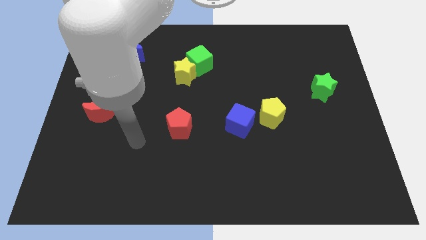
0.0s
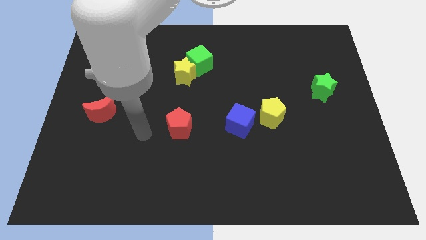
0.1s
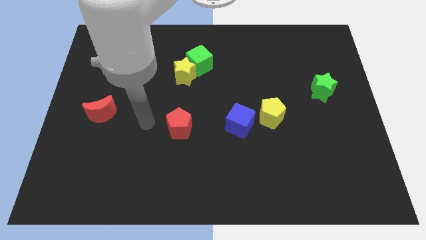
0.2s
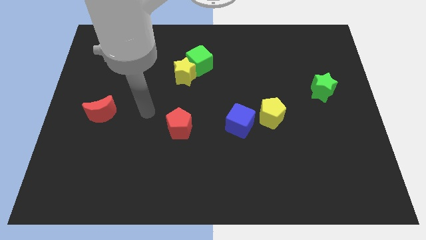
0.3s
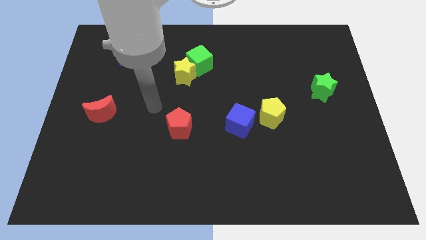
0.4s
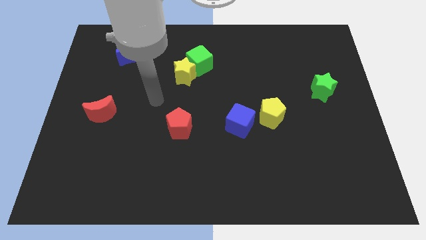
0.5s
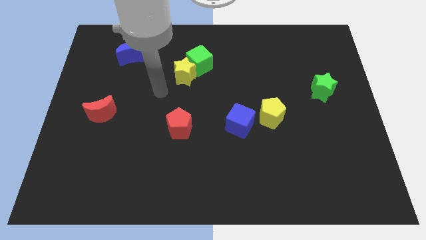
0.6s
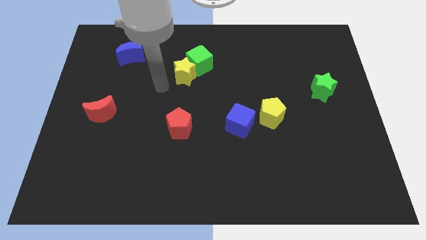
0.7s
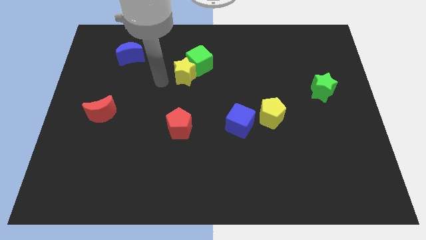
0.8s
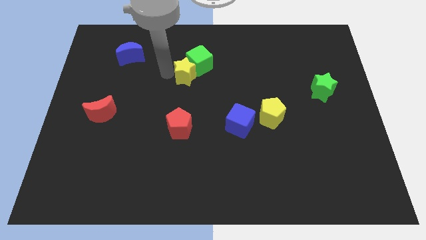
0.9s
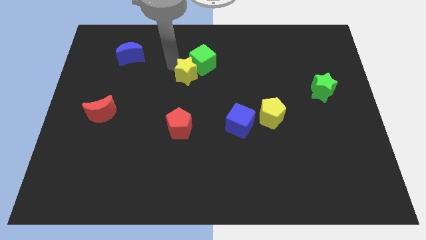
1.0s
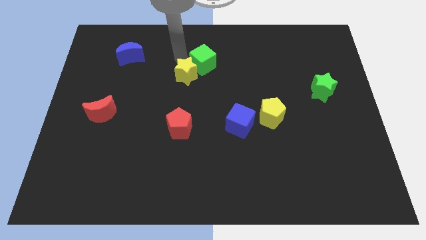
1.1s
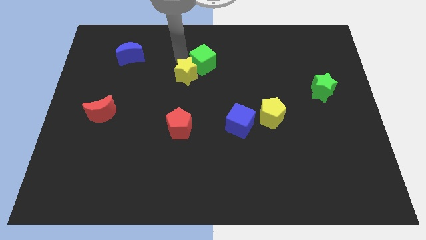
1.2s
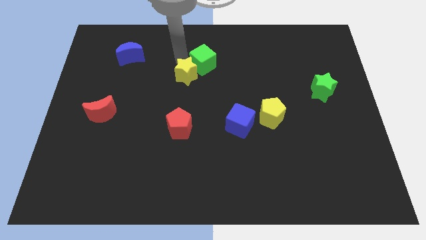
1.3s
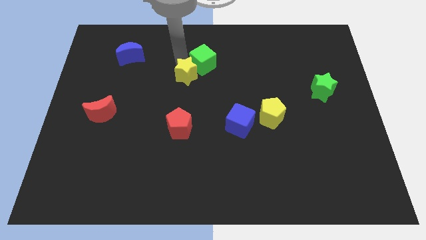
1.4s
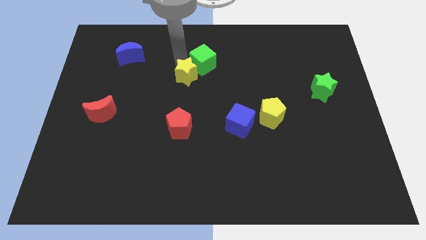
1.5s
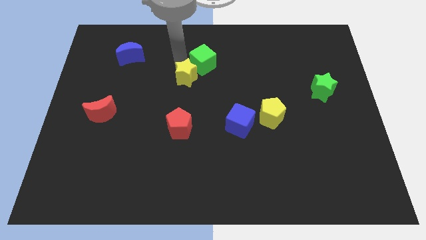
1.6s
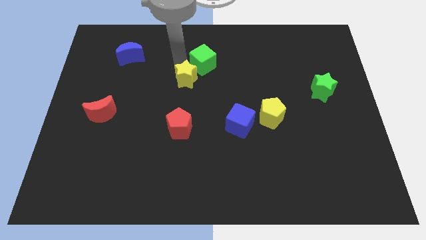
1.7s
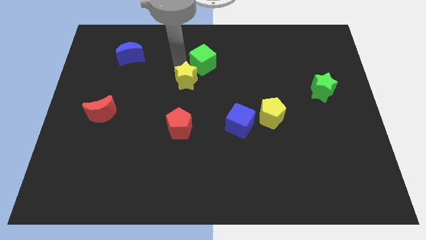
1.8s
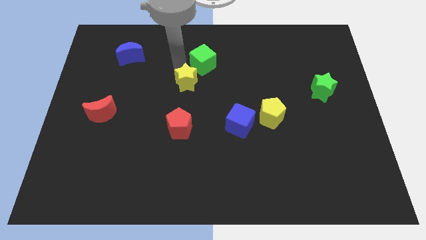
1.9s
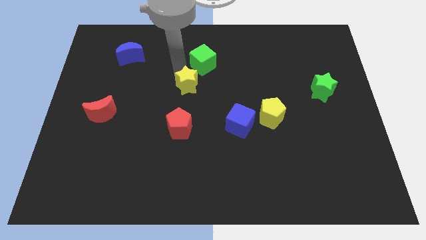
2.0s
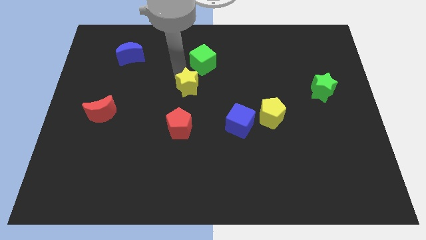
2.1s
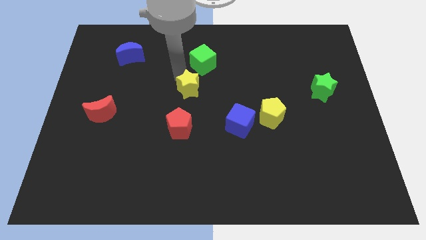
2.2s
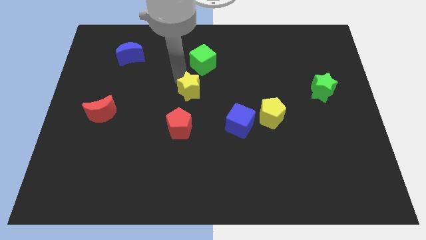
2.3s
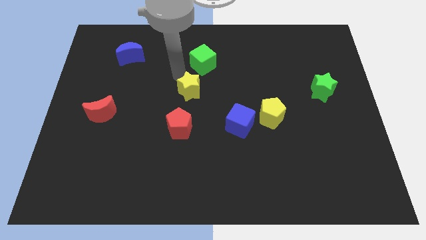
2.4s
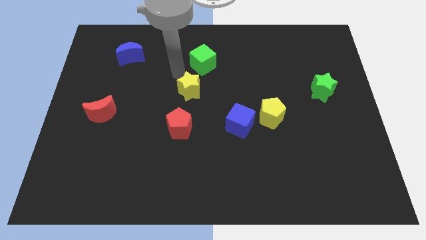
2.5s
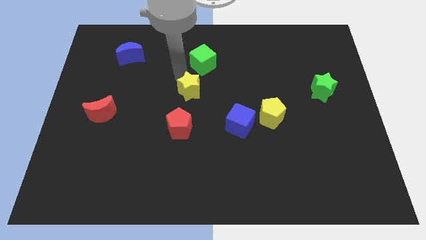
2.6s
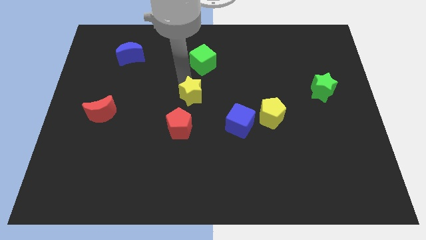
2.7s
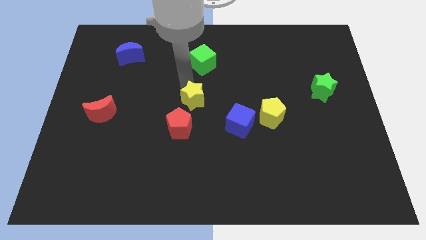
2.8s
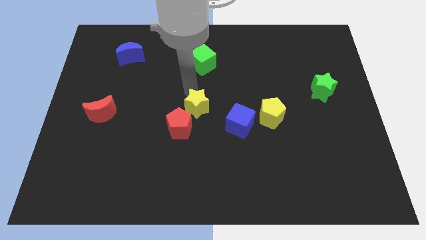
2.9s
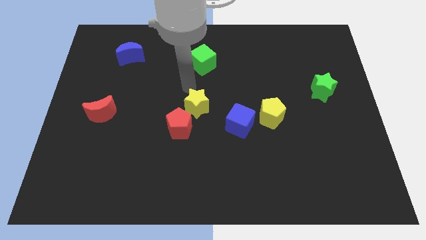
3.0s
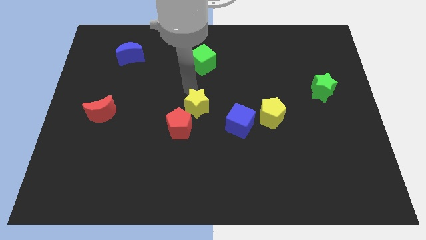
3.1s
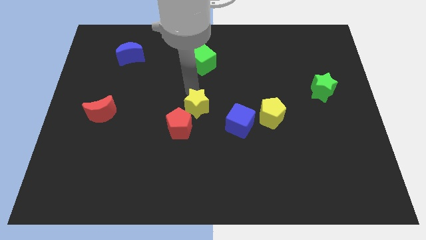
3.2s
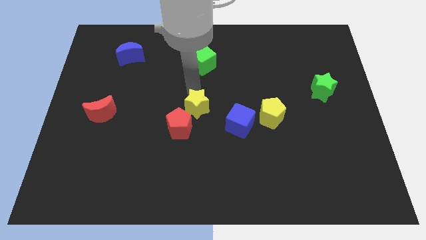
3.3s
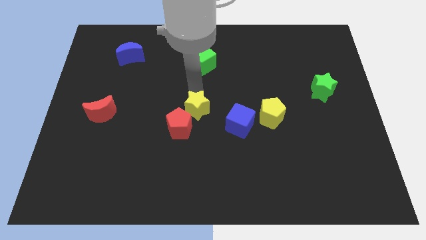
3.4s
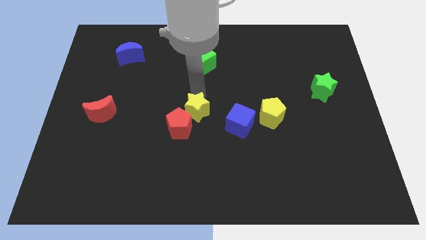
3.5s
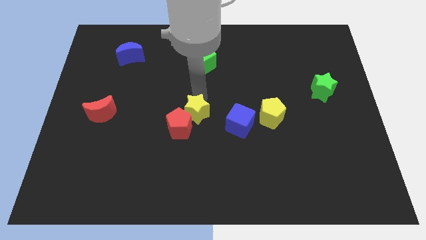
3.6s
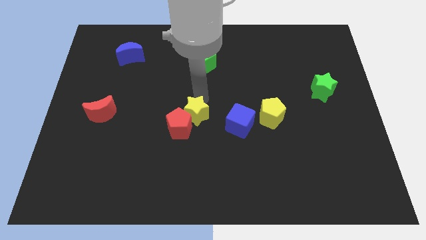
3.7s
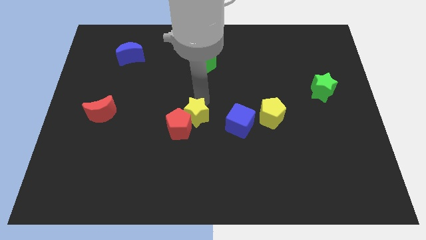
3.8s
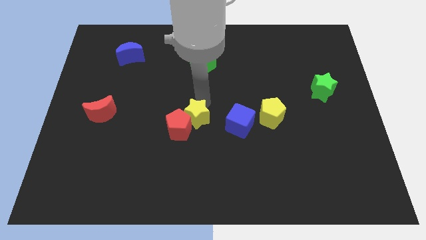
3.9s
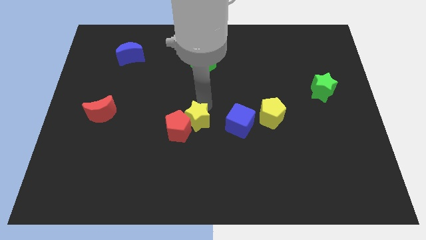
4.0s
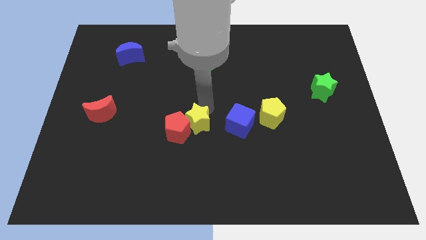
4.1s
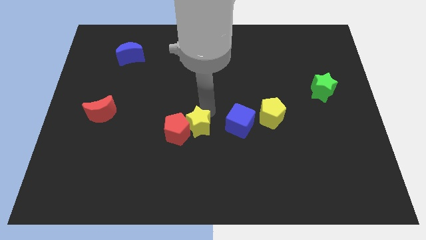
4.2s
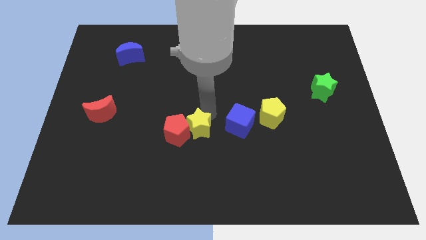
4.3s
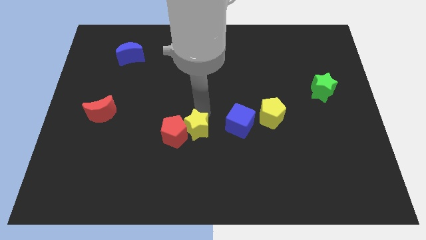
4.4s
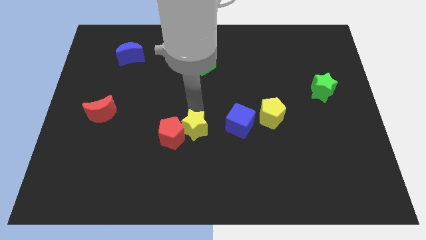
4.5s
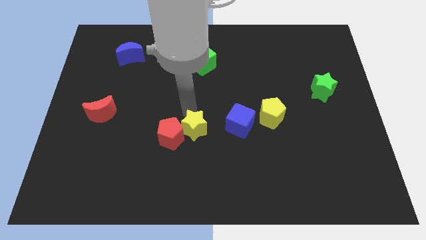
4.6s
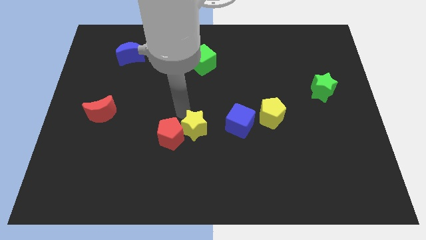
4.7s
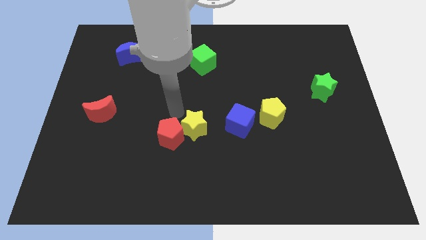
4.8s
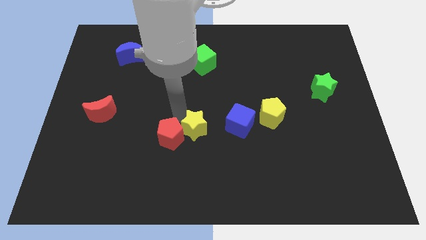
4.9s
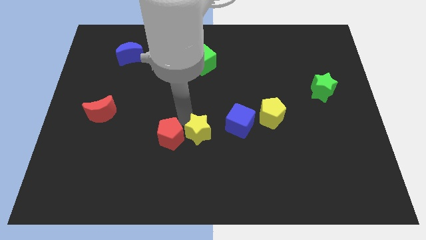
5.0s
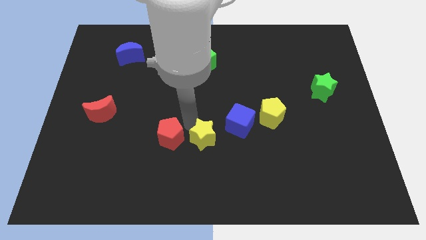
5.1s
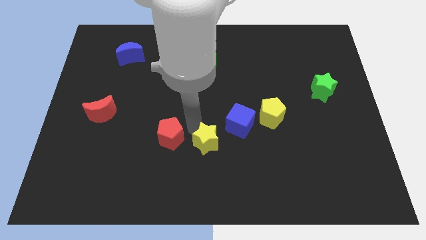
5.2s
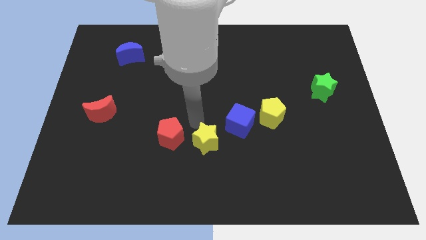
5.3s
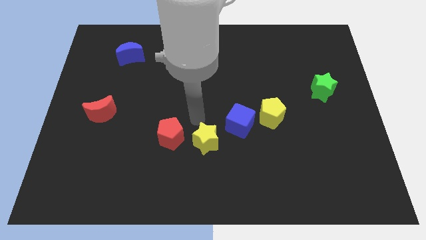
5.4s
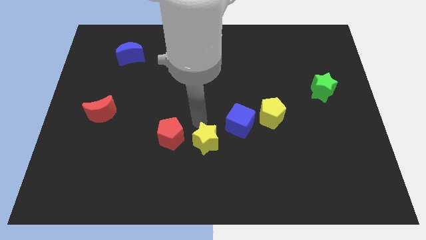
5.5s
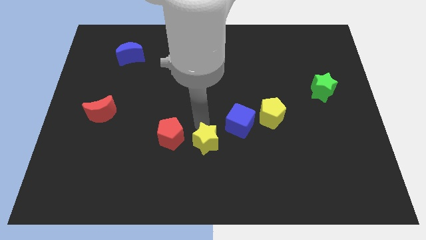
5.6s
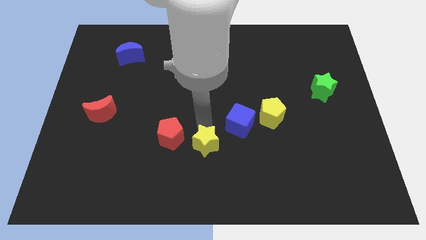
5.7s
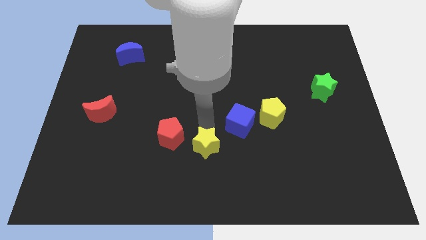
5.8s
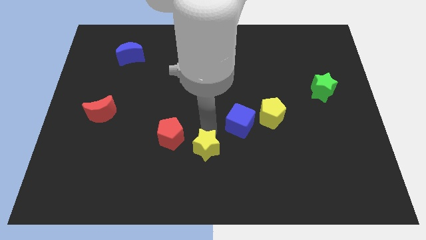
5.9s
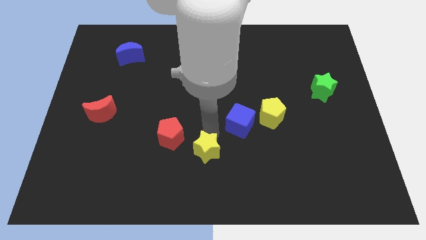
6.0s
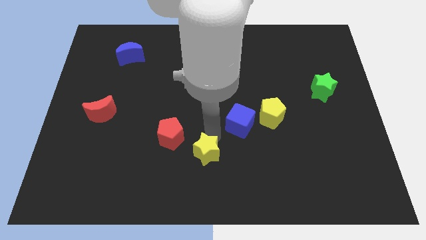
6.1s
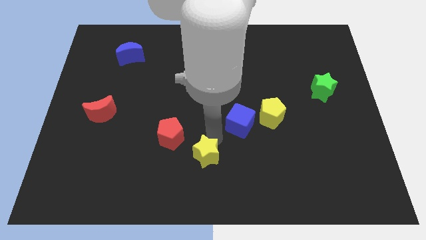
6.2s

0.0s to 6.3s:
move the yellow star to the bottom
